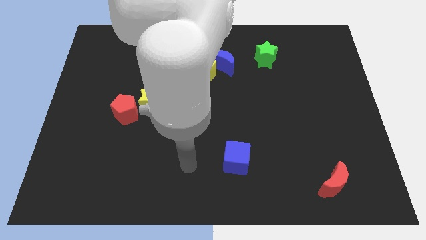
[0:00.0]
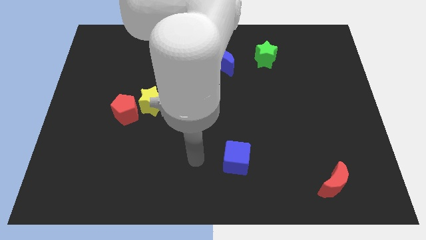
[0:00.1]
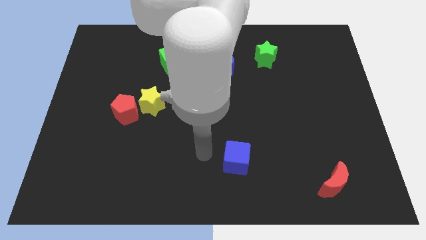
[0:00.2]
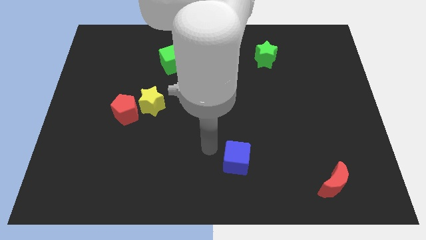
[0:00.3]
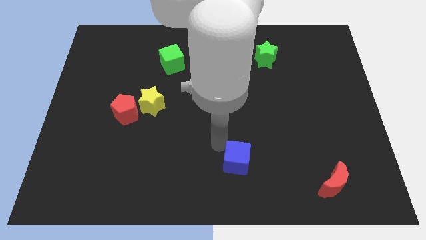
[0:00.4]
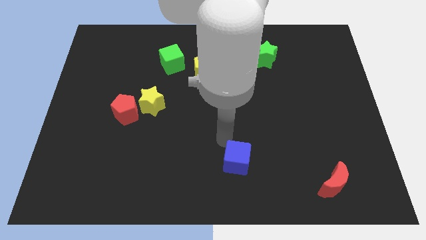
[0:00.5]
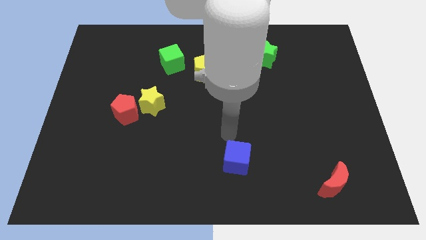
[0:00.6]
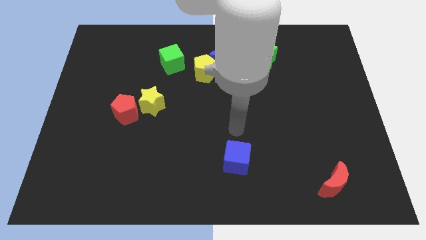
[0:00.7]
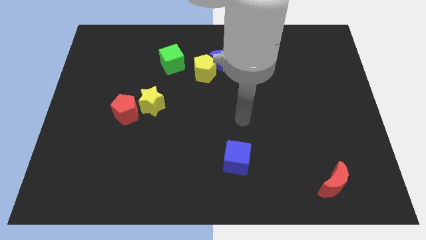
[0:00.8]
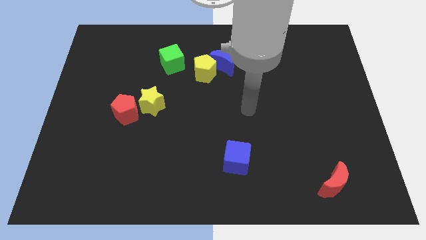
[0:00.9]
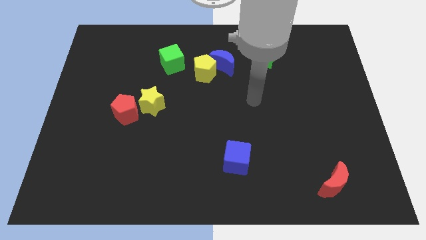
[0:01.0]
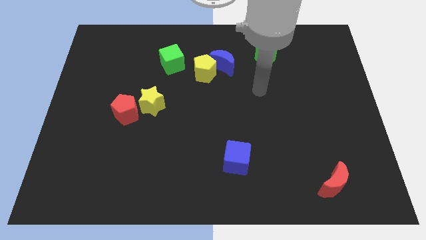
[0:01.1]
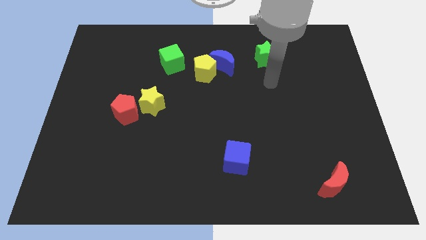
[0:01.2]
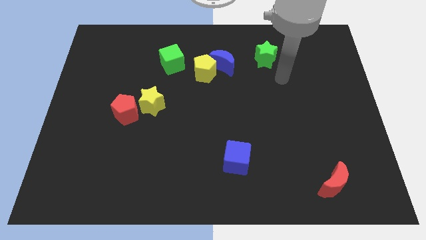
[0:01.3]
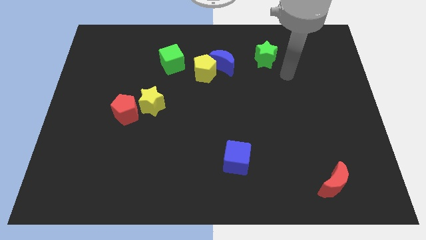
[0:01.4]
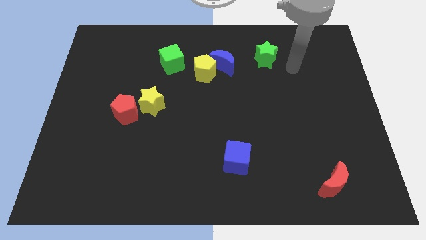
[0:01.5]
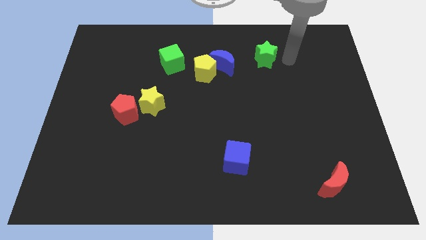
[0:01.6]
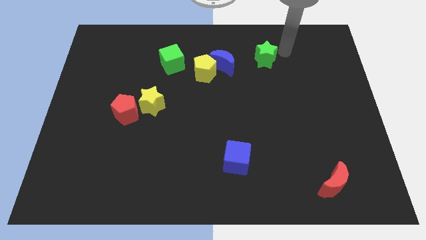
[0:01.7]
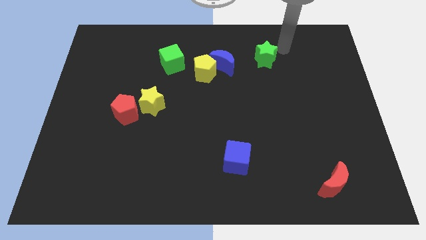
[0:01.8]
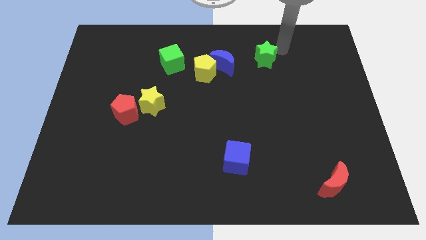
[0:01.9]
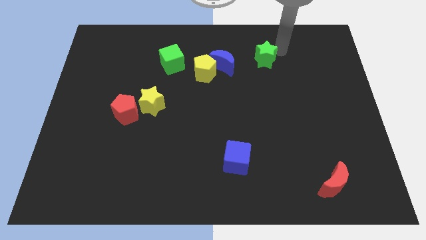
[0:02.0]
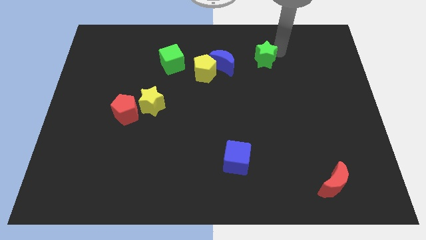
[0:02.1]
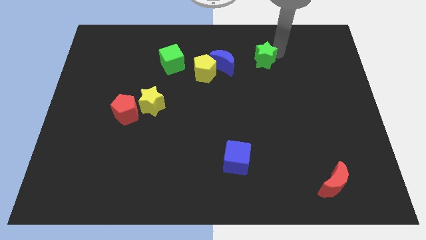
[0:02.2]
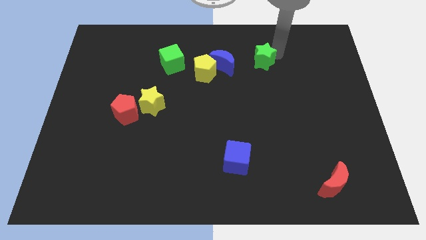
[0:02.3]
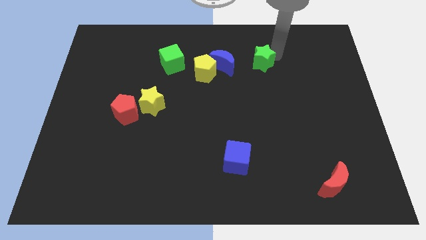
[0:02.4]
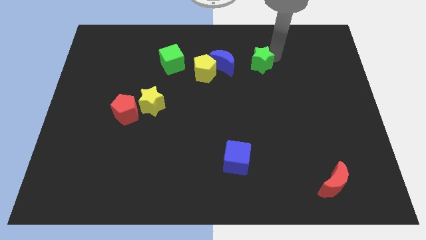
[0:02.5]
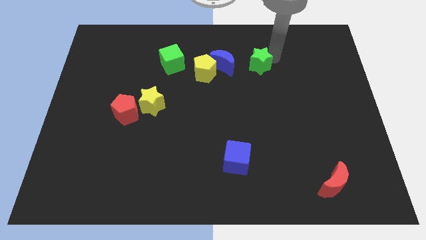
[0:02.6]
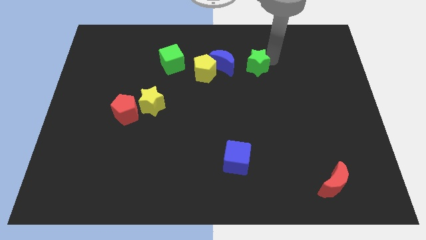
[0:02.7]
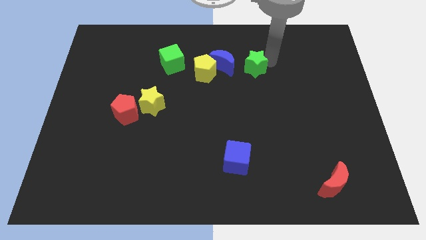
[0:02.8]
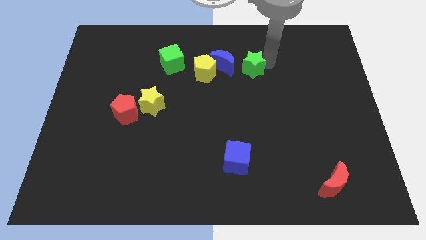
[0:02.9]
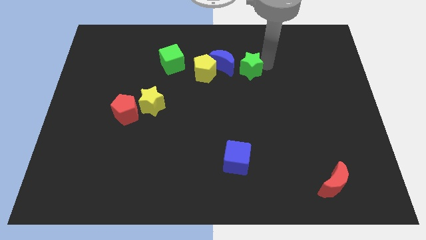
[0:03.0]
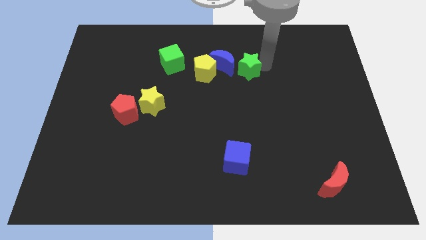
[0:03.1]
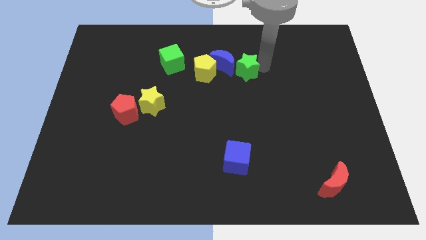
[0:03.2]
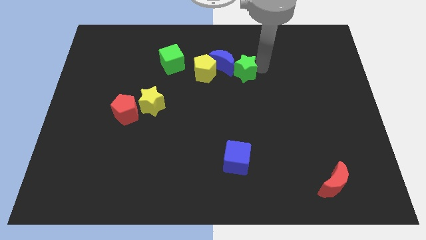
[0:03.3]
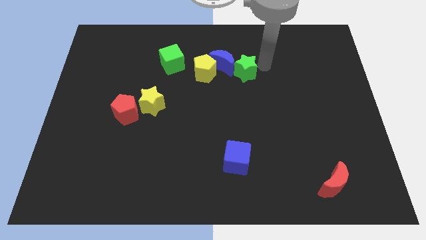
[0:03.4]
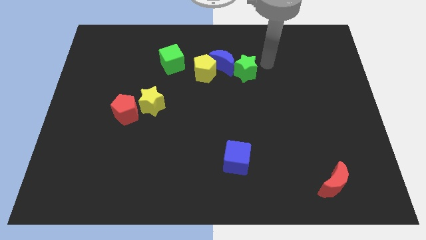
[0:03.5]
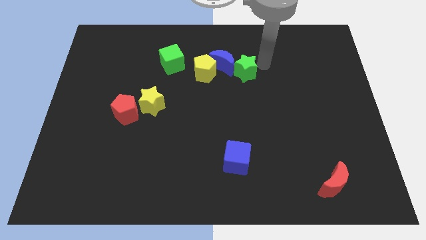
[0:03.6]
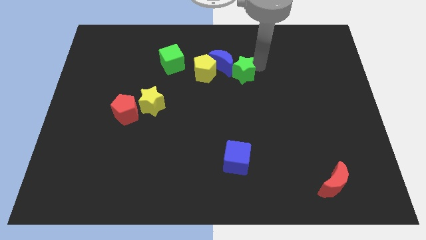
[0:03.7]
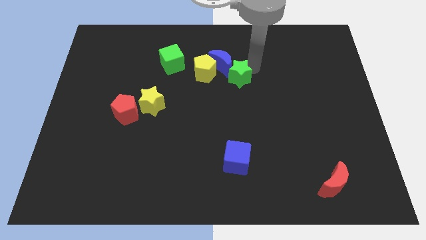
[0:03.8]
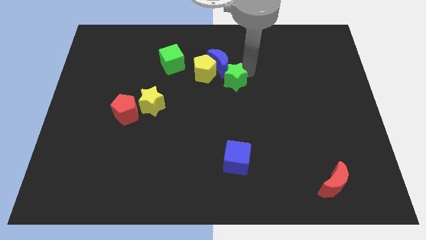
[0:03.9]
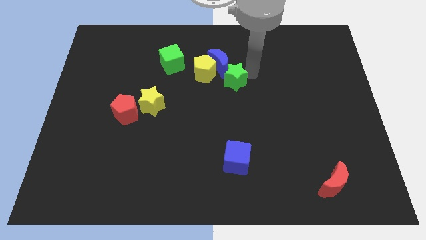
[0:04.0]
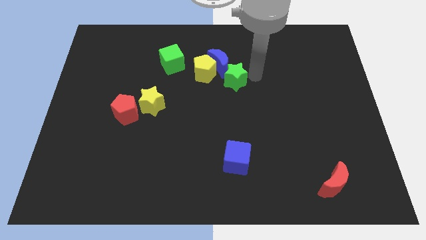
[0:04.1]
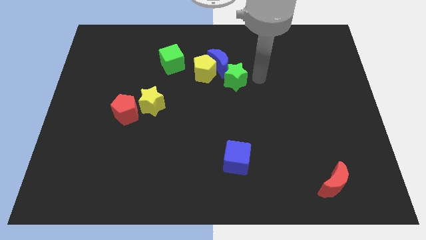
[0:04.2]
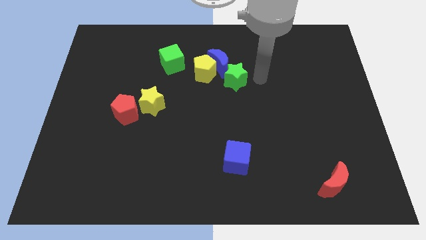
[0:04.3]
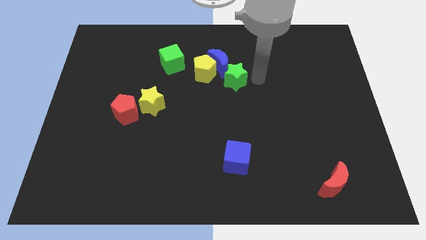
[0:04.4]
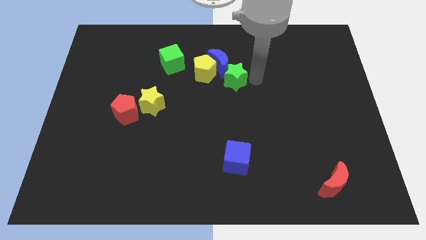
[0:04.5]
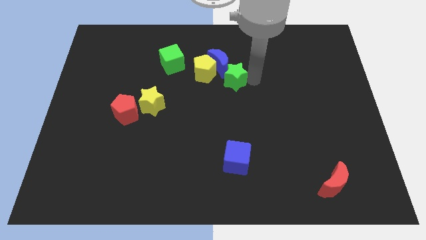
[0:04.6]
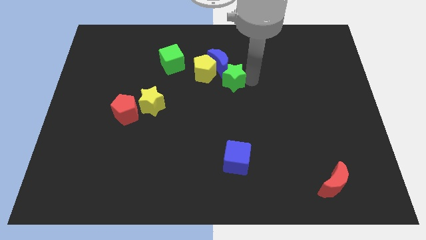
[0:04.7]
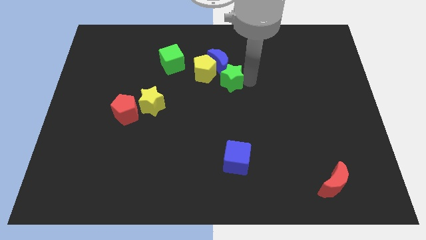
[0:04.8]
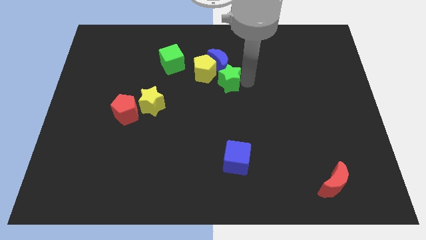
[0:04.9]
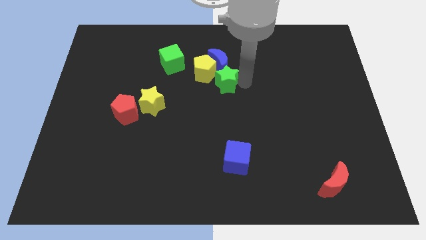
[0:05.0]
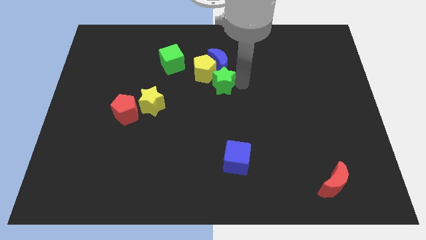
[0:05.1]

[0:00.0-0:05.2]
slide the green star to the yellow pentagon

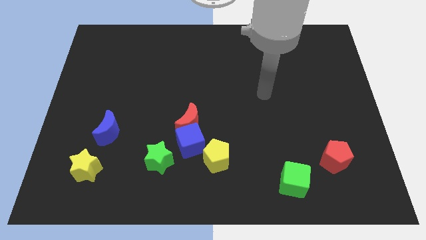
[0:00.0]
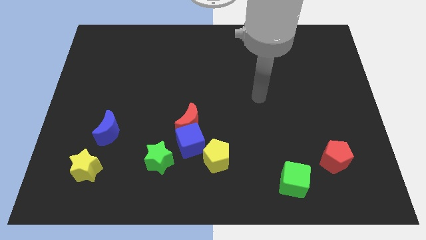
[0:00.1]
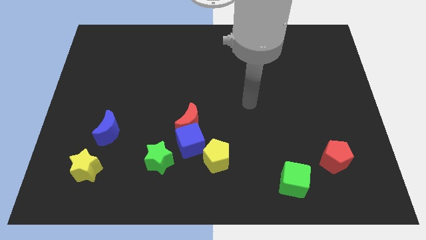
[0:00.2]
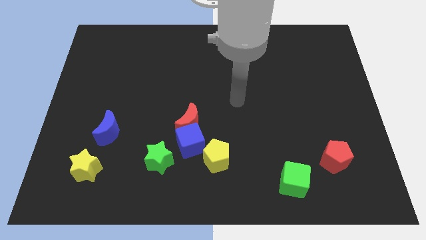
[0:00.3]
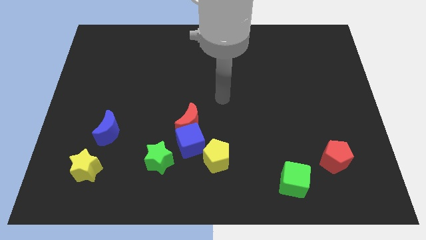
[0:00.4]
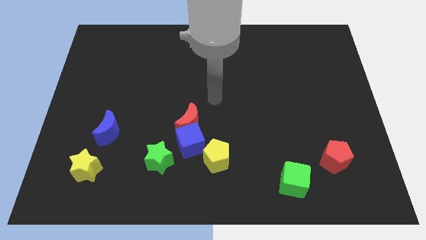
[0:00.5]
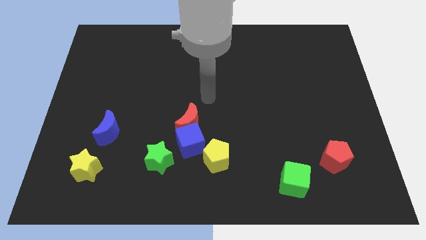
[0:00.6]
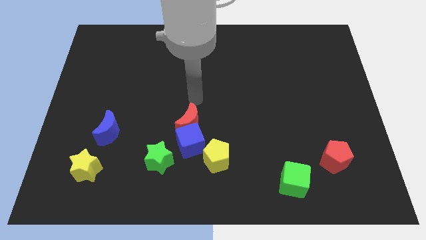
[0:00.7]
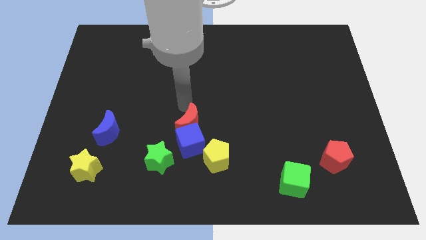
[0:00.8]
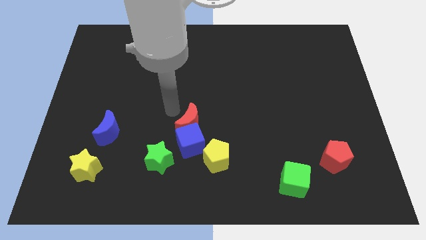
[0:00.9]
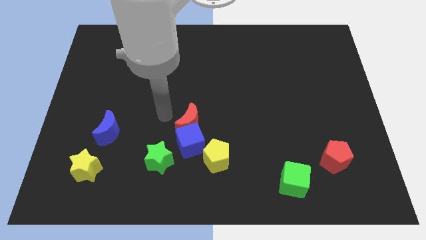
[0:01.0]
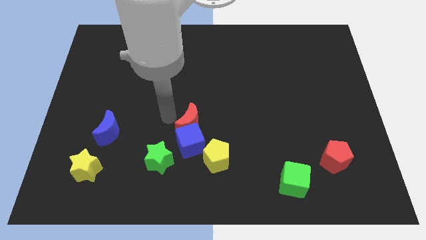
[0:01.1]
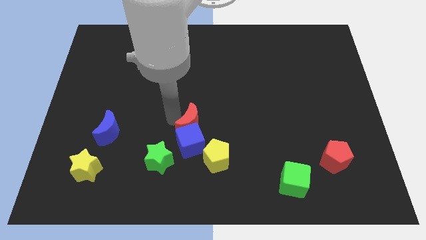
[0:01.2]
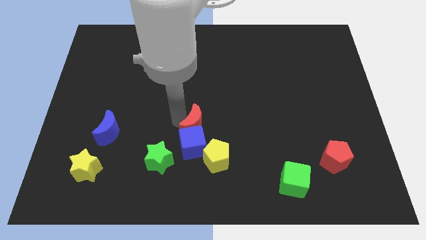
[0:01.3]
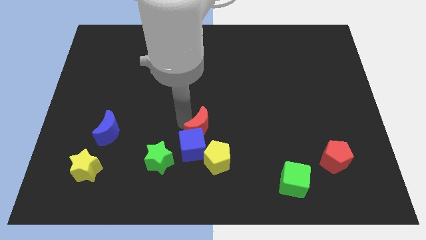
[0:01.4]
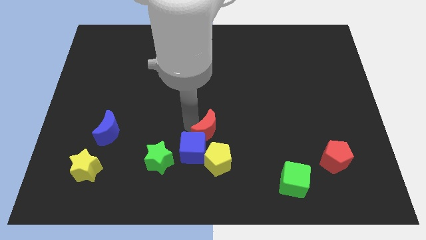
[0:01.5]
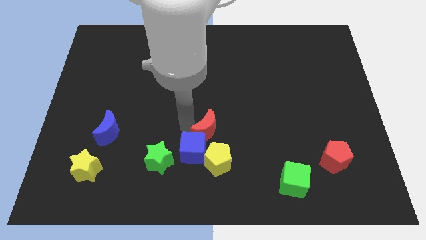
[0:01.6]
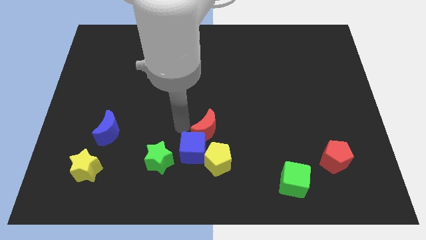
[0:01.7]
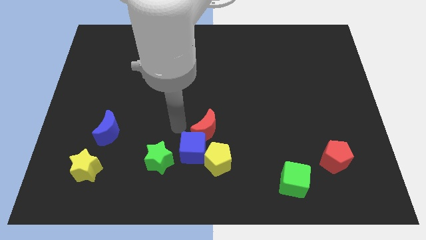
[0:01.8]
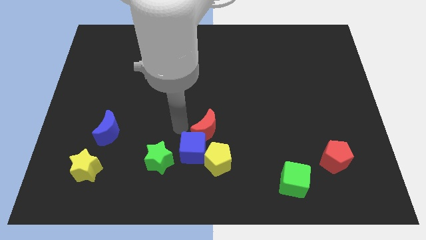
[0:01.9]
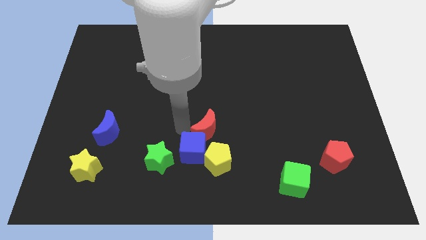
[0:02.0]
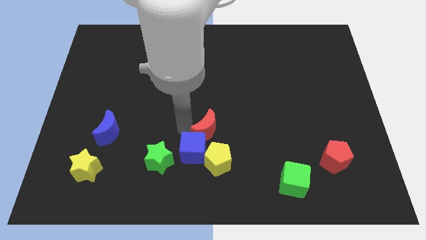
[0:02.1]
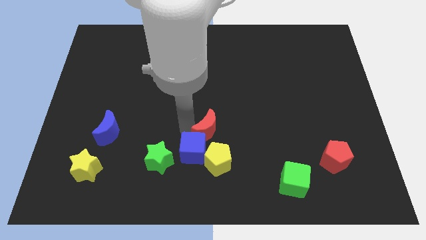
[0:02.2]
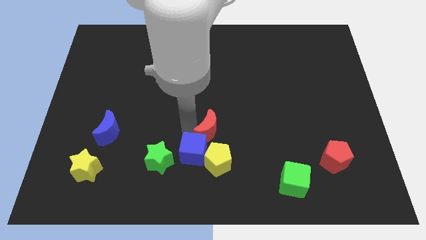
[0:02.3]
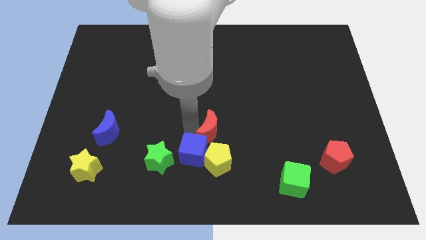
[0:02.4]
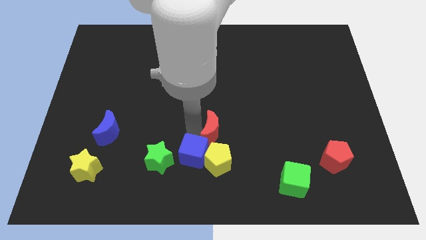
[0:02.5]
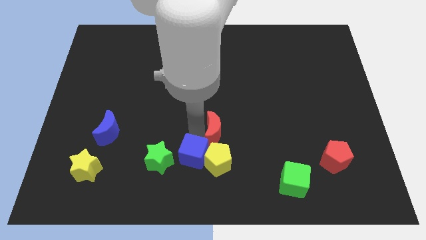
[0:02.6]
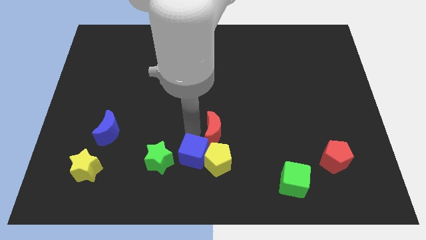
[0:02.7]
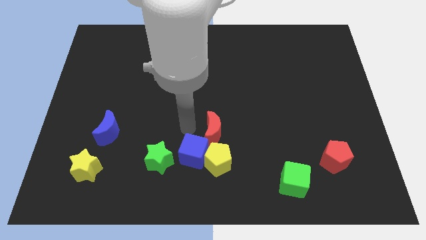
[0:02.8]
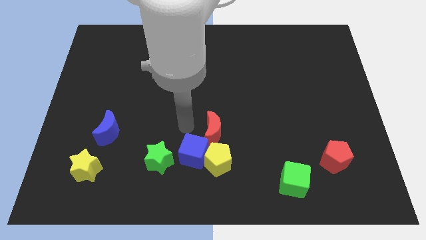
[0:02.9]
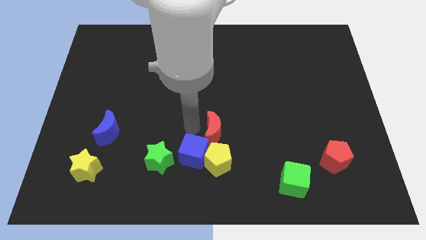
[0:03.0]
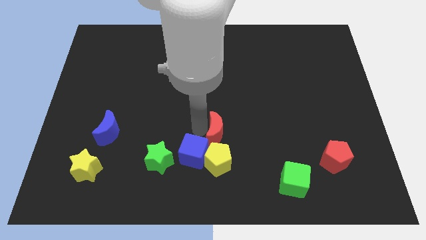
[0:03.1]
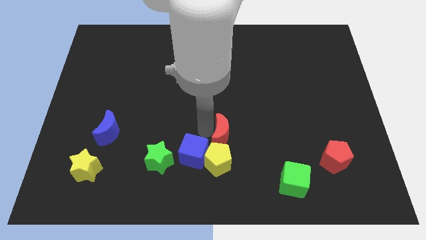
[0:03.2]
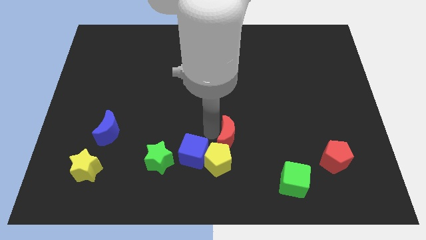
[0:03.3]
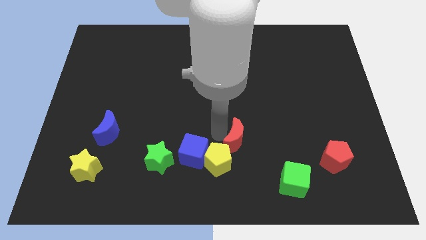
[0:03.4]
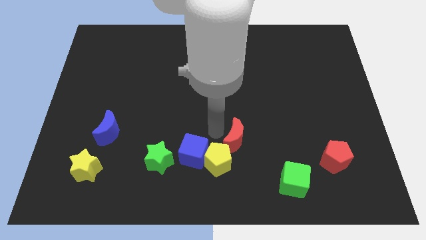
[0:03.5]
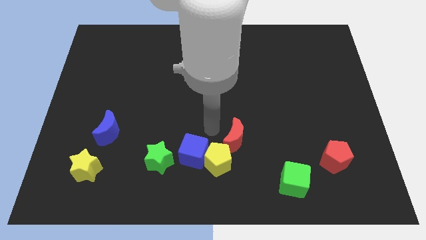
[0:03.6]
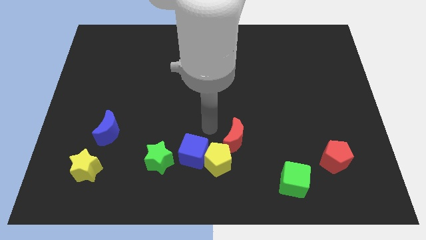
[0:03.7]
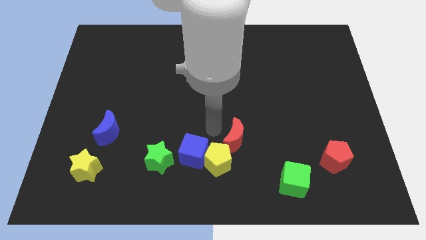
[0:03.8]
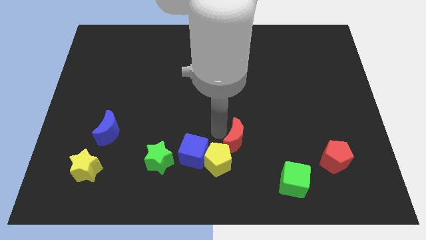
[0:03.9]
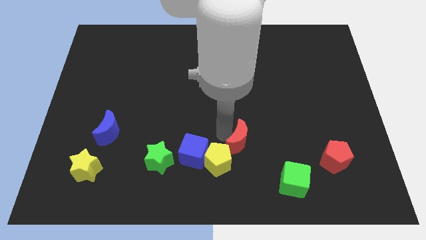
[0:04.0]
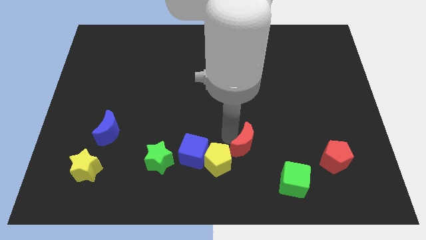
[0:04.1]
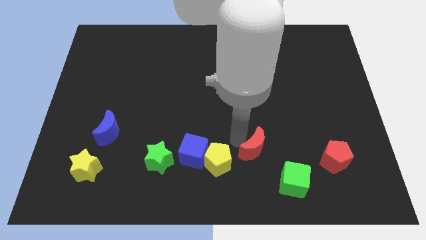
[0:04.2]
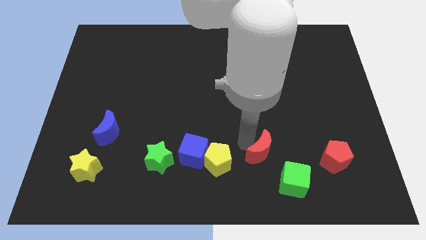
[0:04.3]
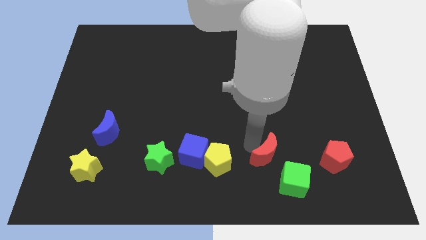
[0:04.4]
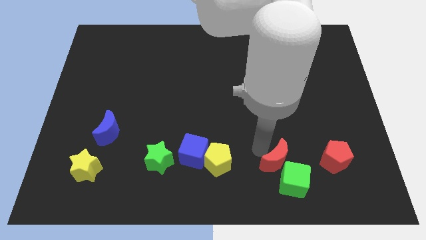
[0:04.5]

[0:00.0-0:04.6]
slide the red moon close to the green cube
